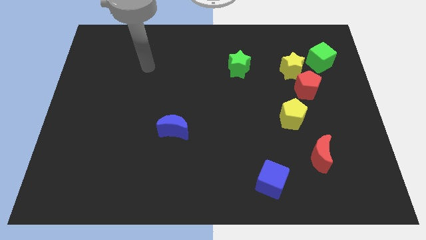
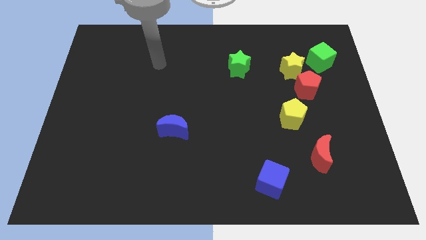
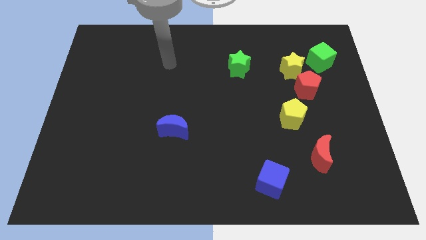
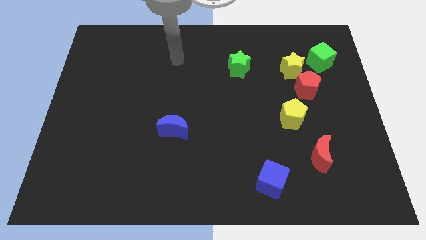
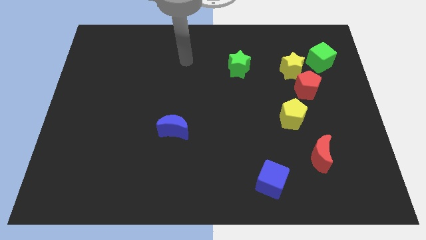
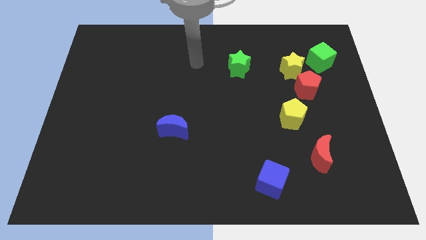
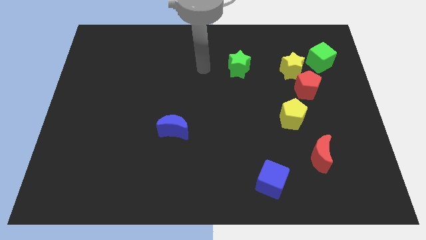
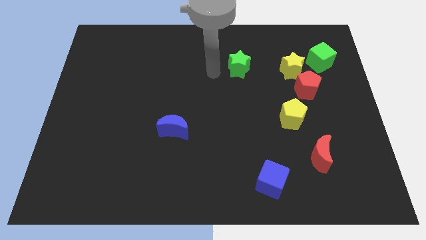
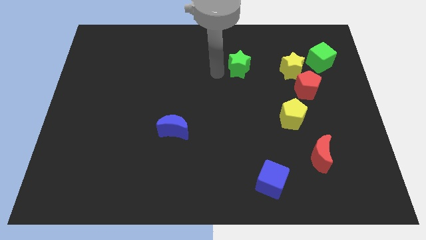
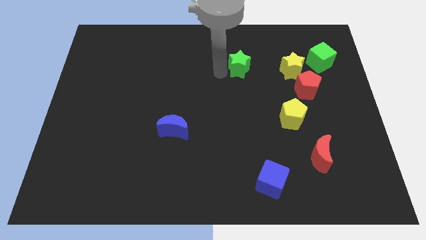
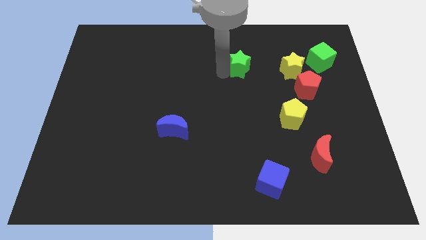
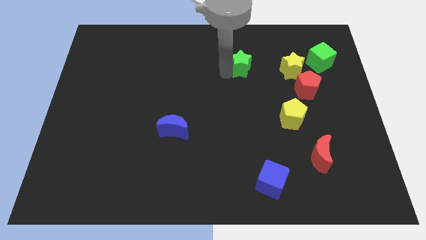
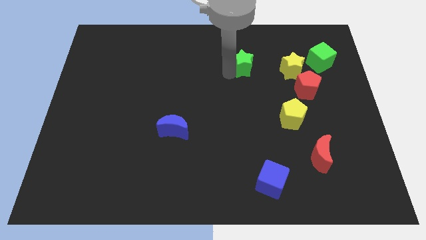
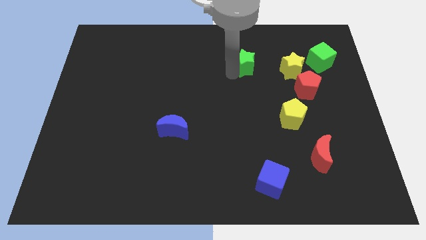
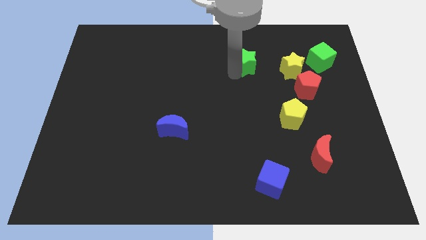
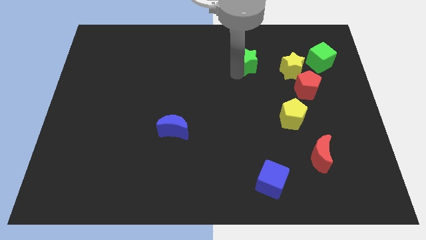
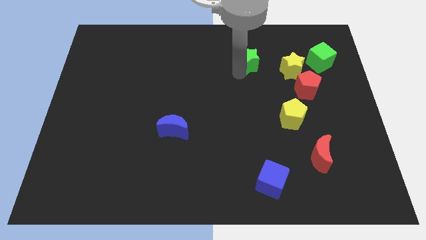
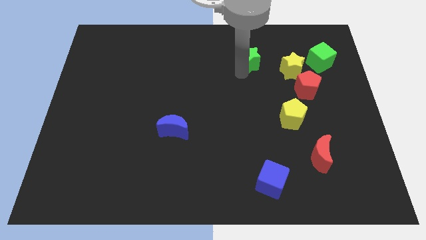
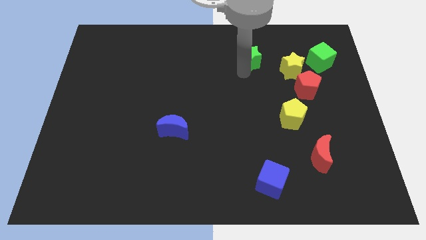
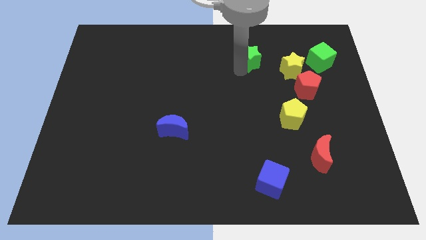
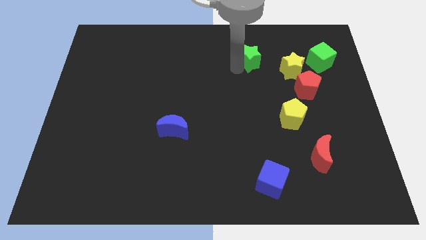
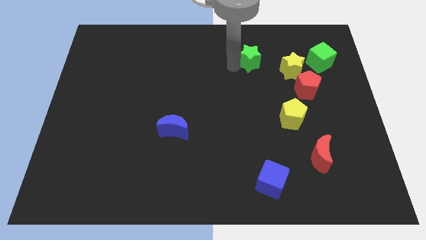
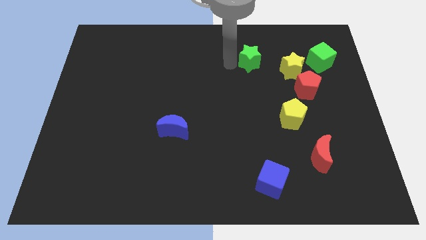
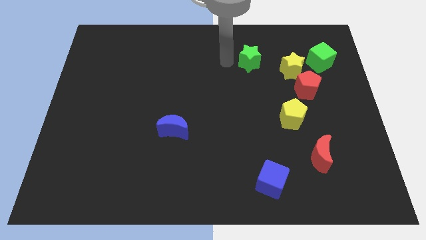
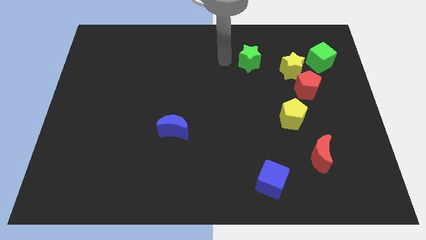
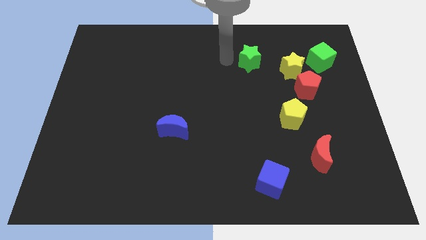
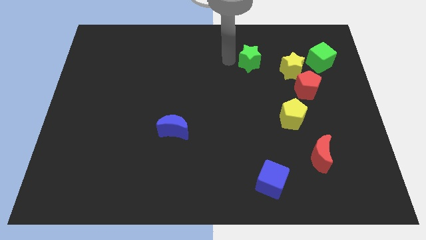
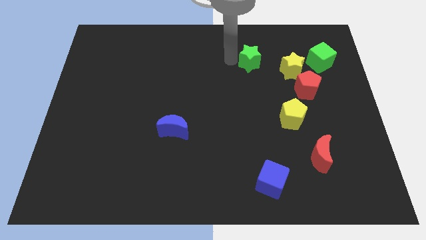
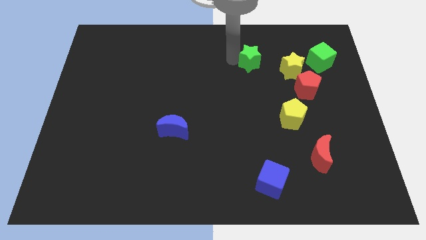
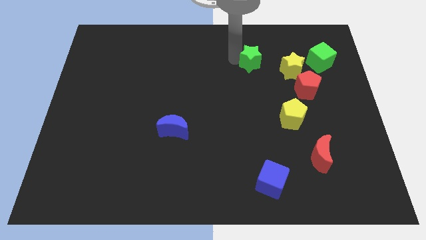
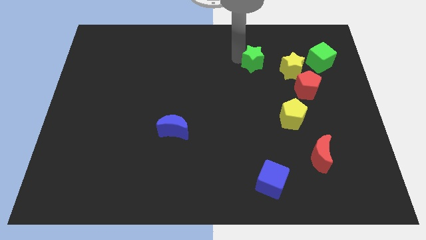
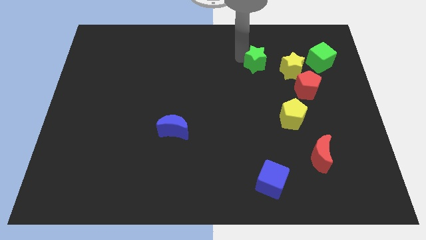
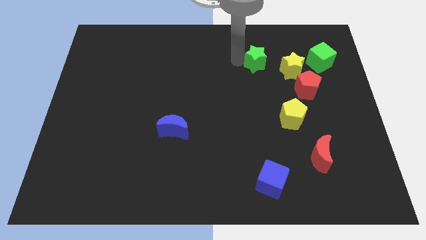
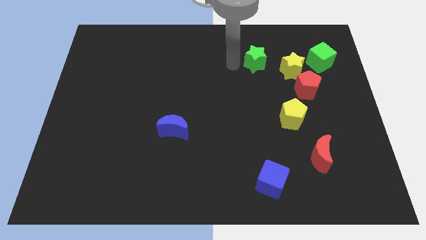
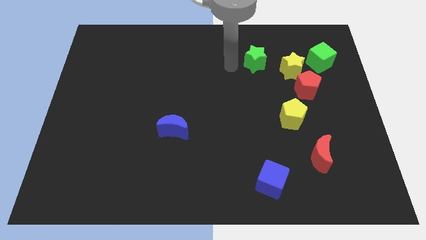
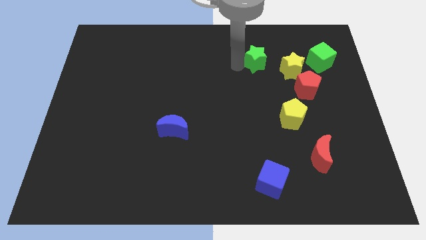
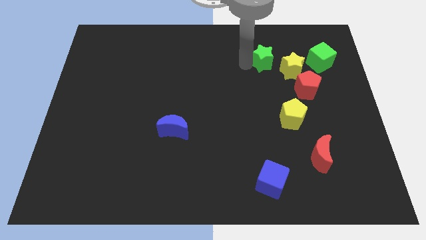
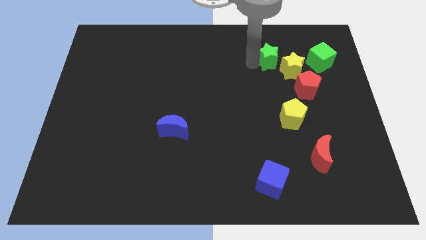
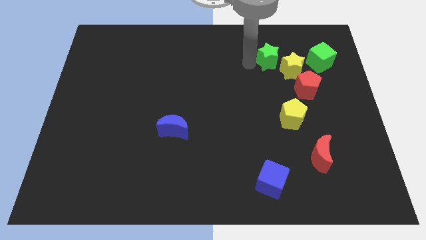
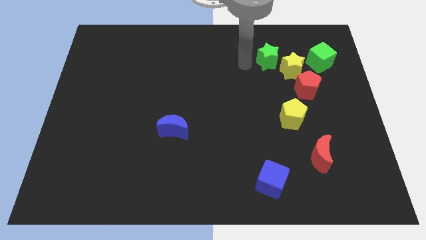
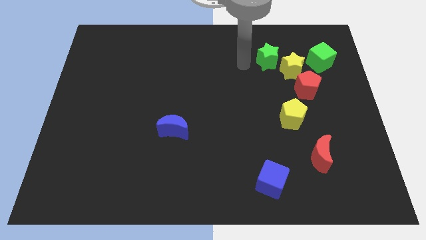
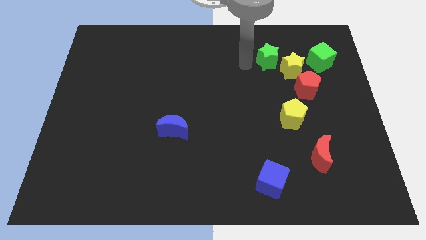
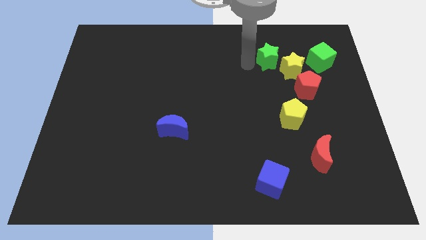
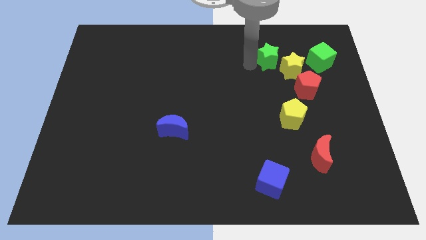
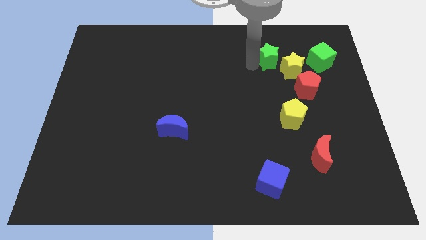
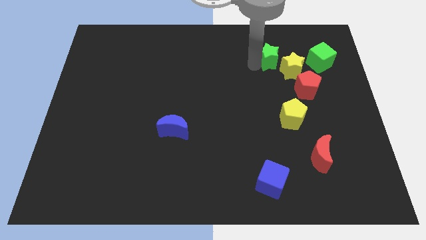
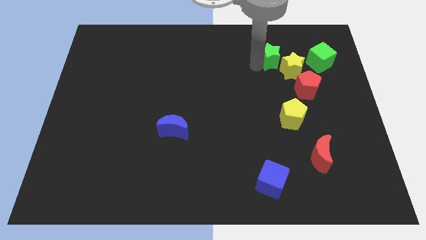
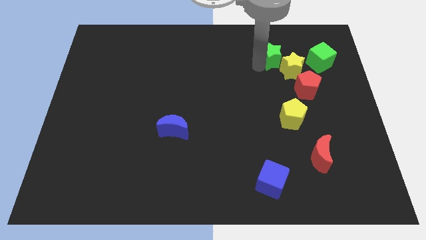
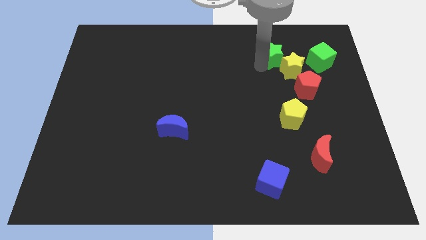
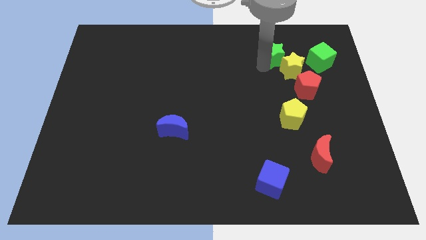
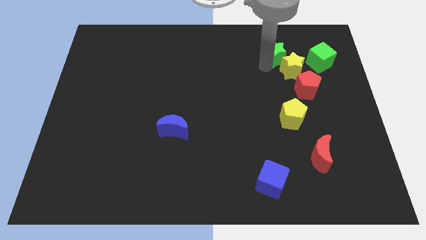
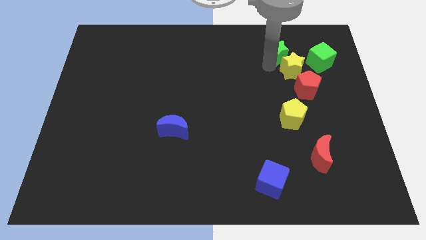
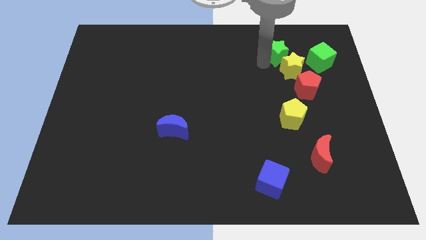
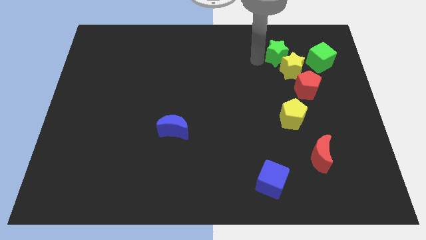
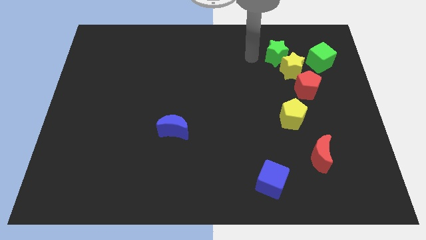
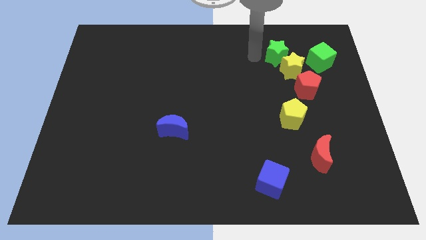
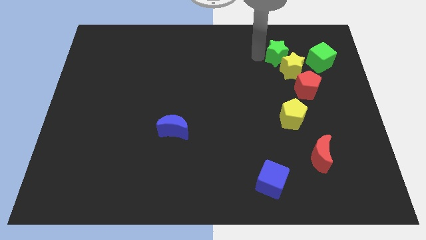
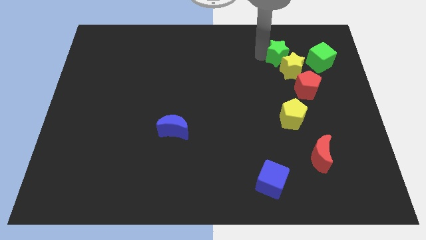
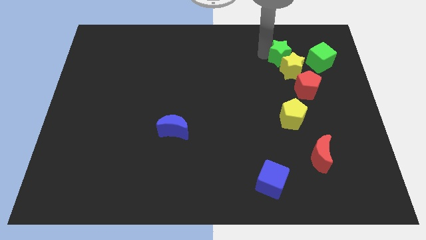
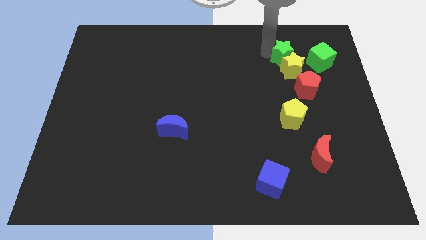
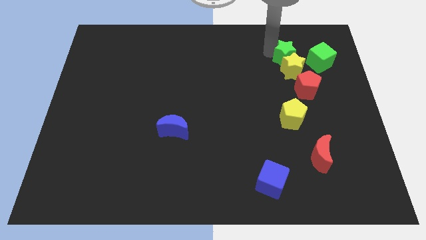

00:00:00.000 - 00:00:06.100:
push the green star to the top right of the yellow star

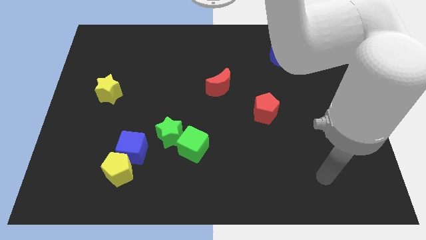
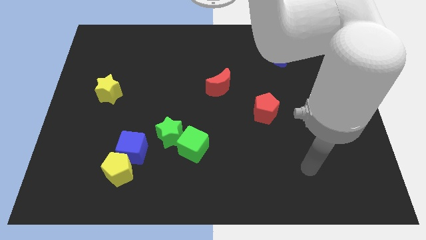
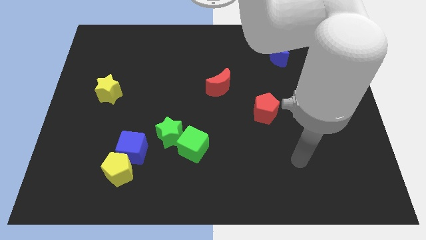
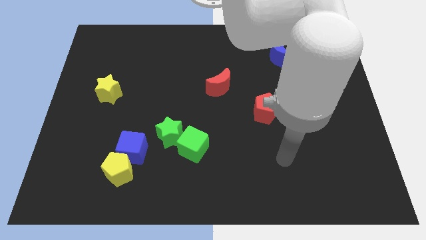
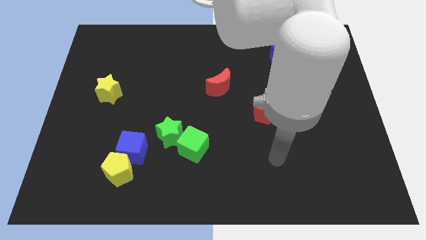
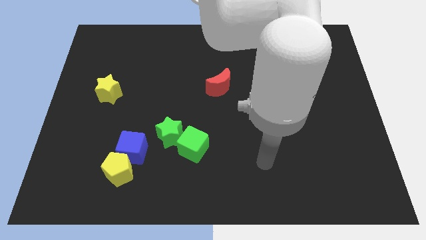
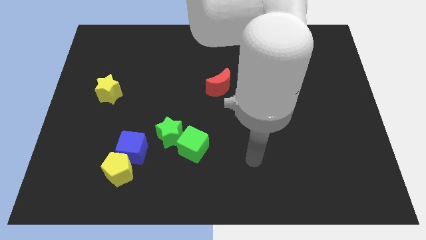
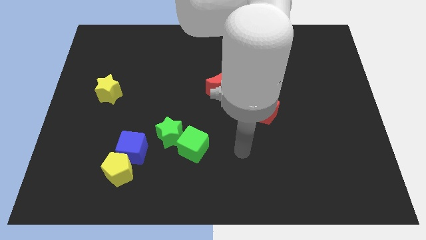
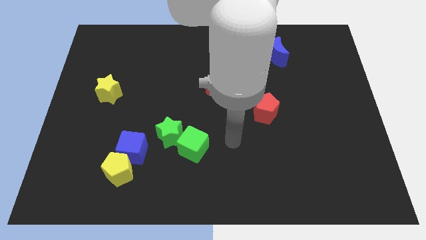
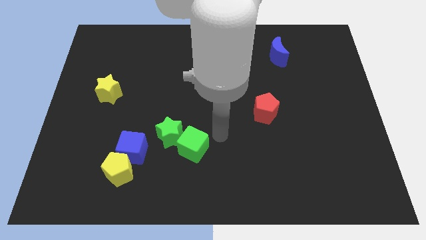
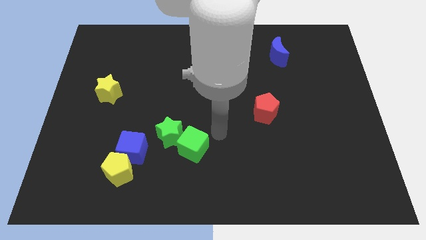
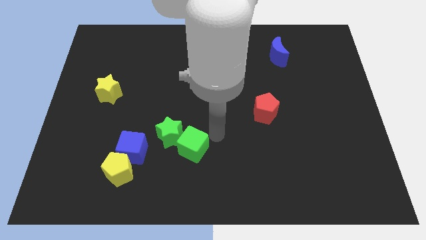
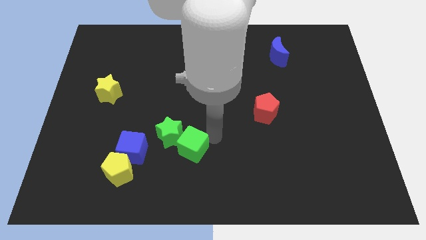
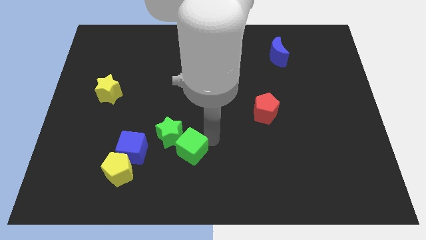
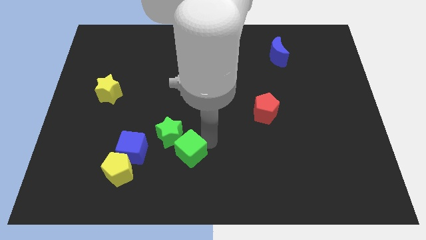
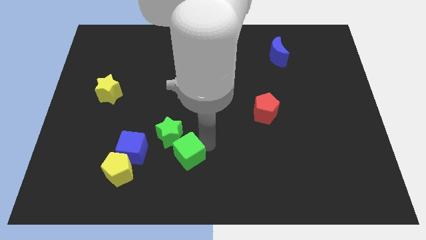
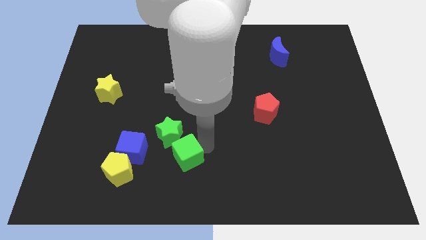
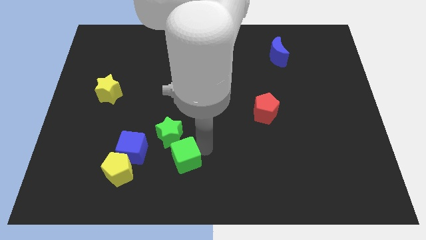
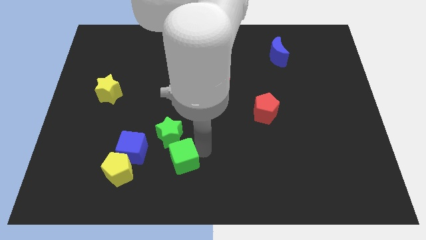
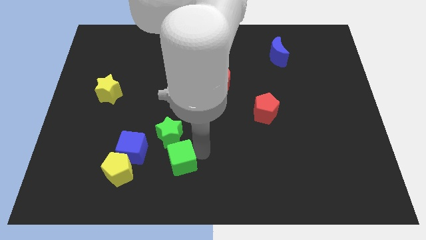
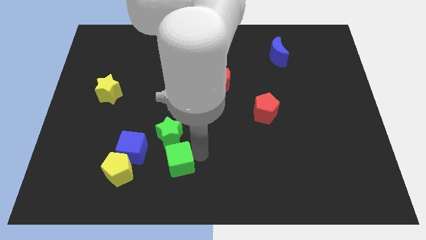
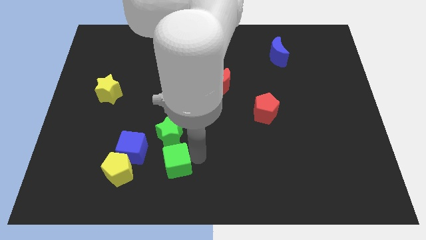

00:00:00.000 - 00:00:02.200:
move the green cube diagonally down and to the right of the blue cube
